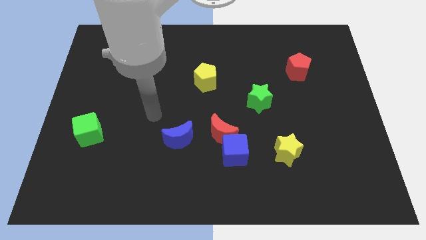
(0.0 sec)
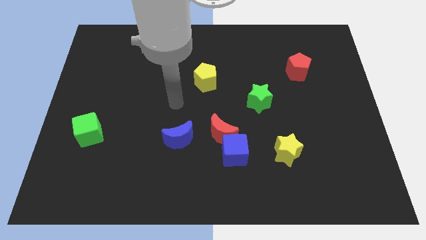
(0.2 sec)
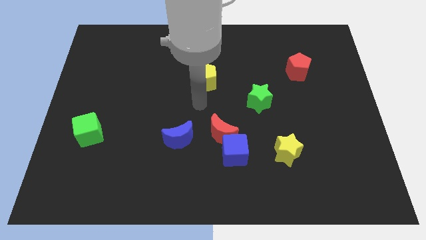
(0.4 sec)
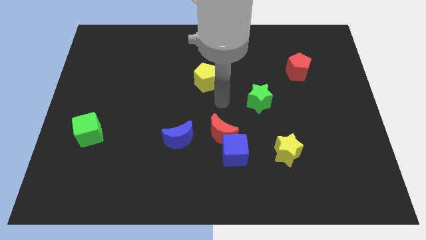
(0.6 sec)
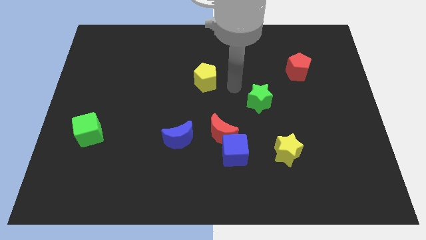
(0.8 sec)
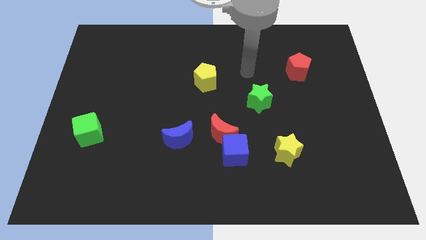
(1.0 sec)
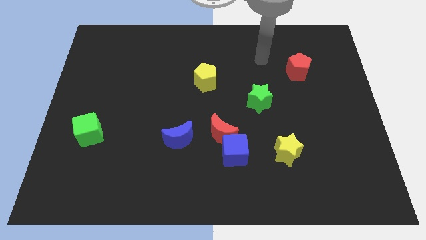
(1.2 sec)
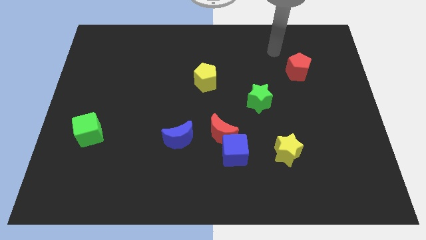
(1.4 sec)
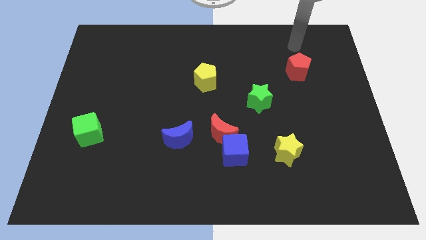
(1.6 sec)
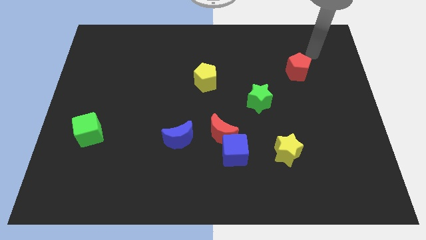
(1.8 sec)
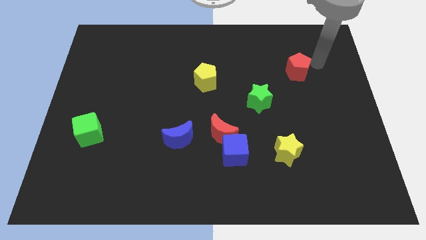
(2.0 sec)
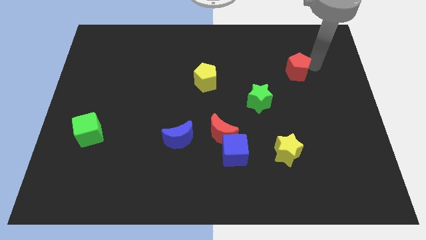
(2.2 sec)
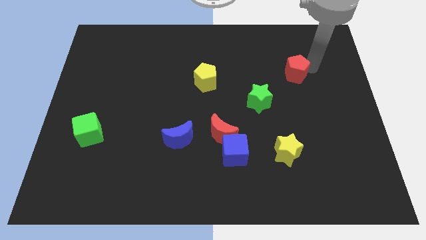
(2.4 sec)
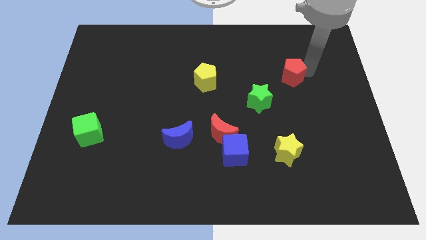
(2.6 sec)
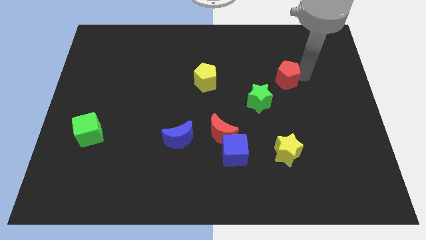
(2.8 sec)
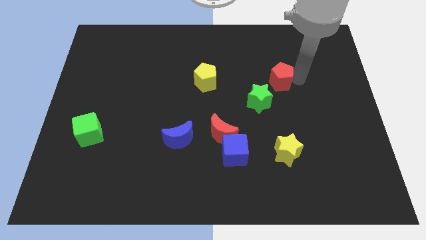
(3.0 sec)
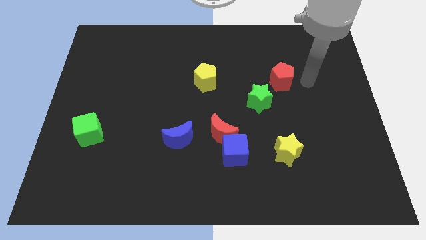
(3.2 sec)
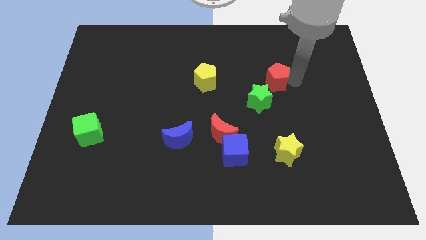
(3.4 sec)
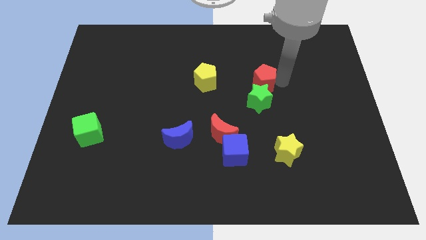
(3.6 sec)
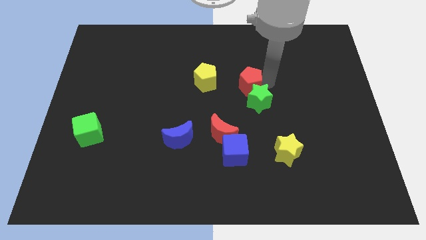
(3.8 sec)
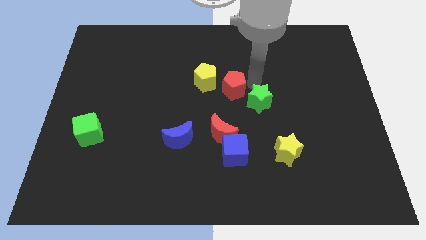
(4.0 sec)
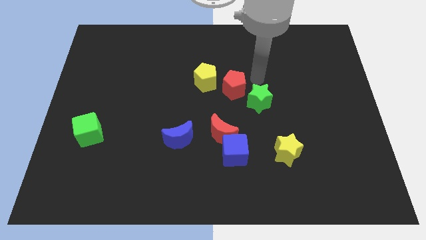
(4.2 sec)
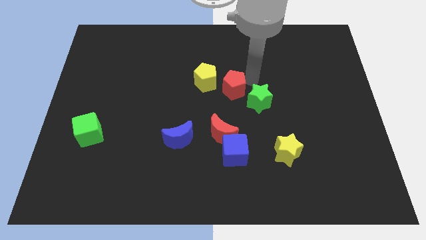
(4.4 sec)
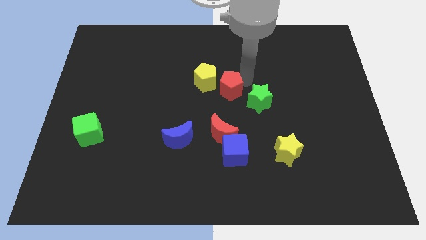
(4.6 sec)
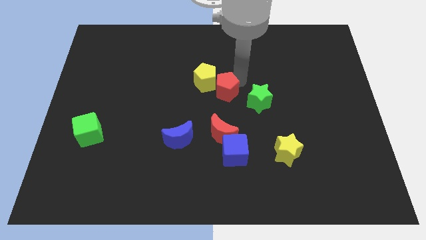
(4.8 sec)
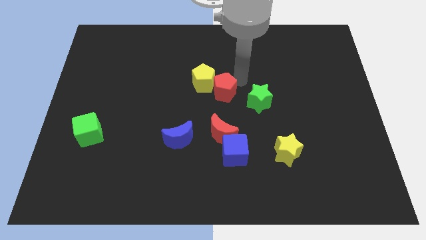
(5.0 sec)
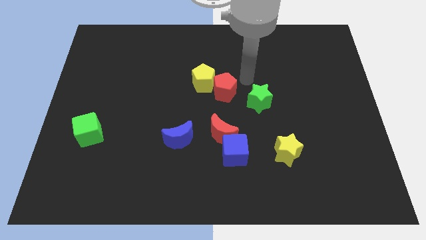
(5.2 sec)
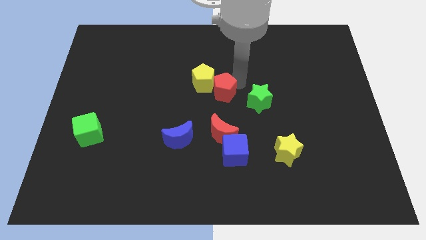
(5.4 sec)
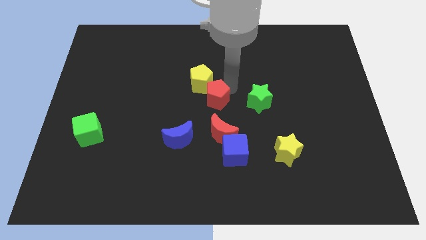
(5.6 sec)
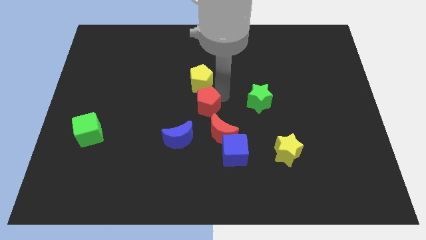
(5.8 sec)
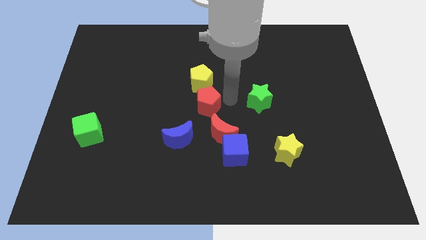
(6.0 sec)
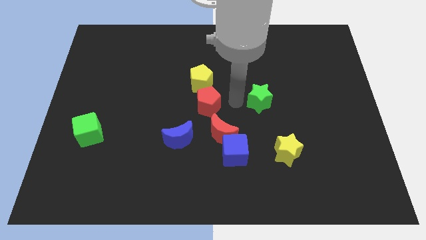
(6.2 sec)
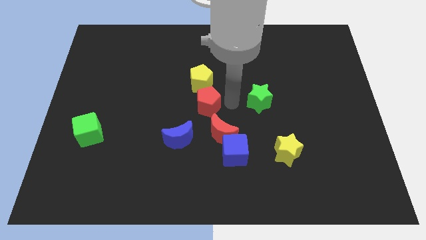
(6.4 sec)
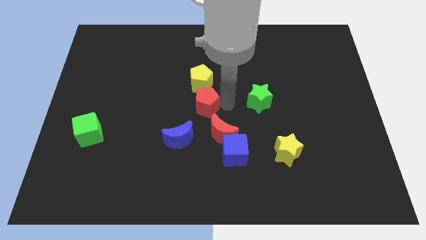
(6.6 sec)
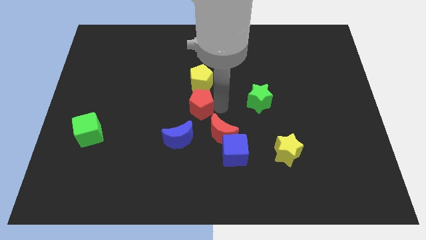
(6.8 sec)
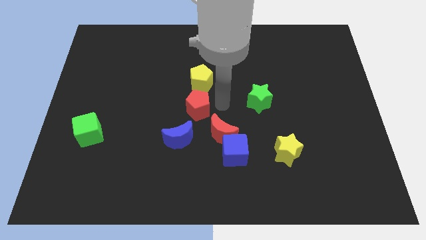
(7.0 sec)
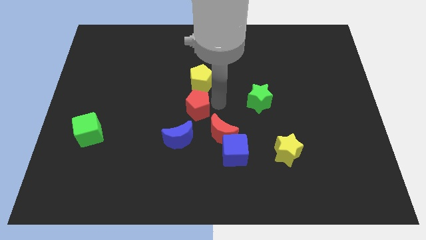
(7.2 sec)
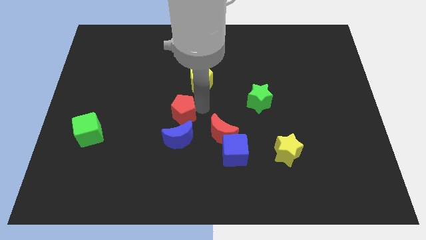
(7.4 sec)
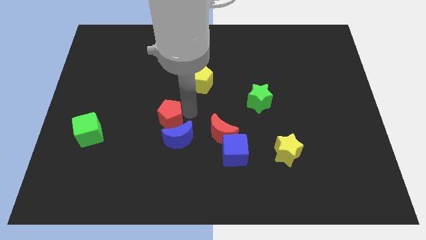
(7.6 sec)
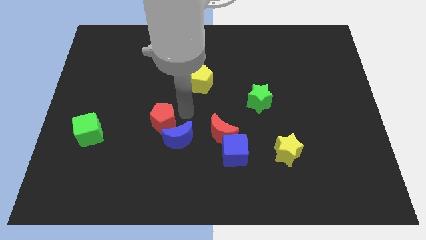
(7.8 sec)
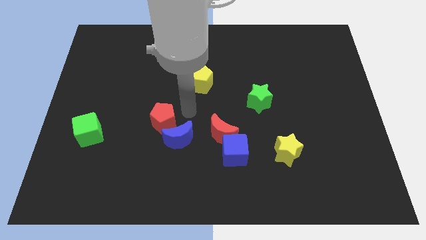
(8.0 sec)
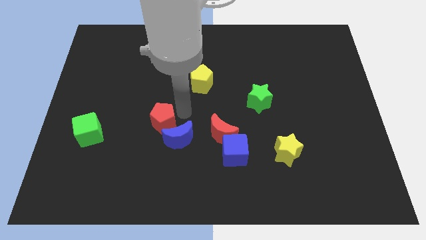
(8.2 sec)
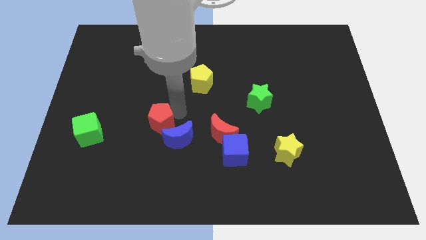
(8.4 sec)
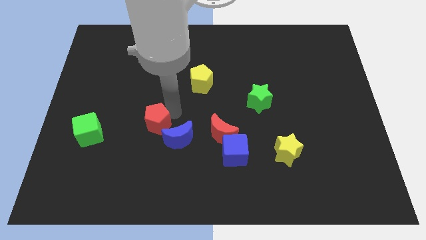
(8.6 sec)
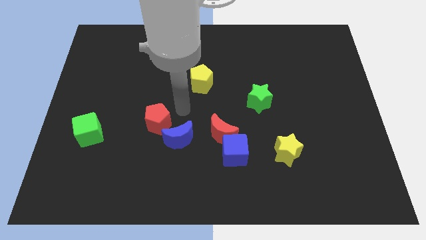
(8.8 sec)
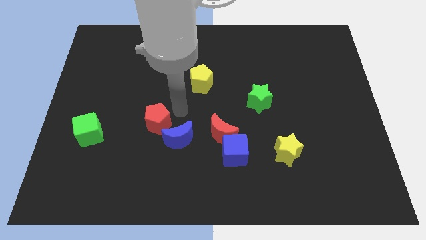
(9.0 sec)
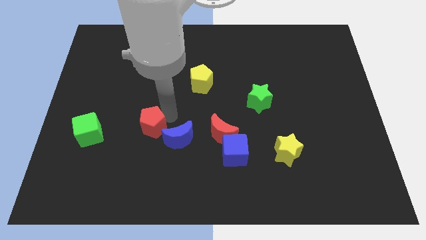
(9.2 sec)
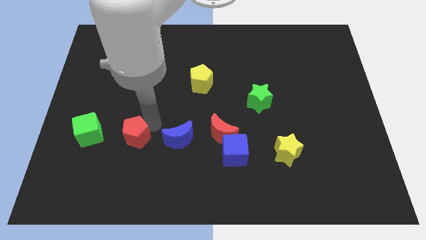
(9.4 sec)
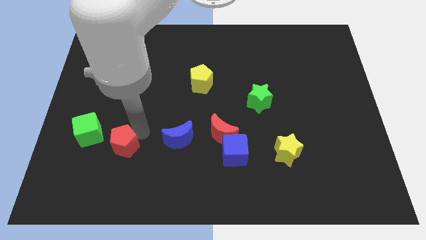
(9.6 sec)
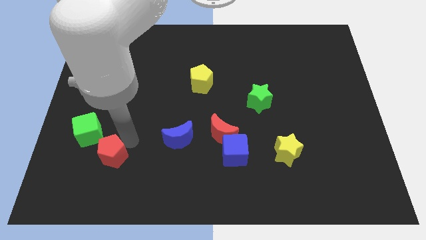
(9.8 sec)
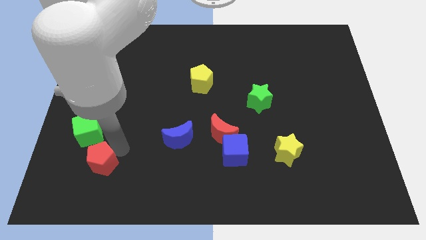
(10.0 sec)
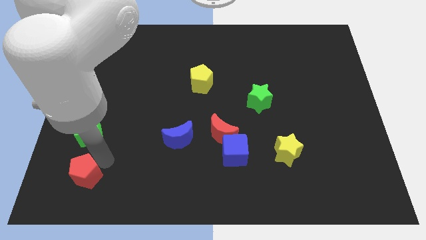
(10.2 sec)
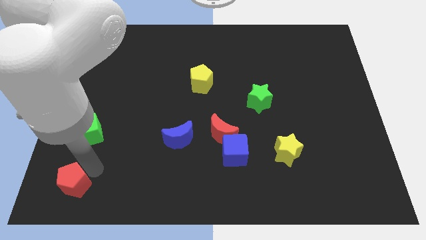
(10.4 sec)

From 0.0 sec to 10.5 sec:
slide the red pentagon to the lower left corner
